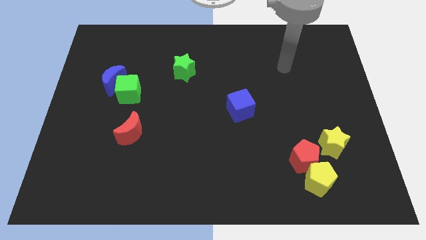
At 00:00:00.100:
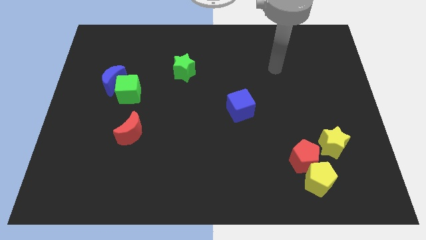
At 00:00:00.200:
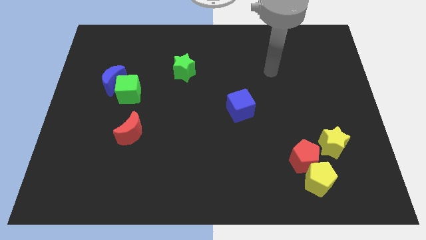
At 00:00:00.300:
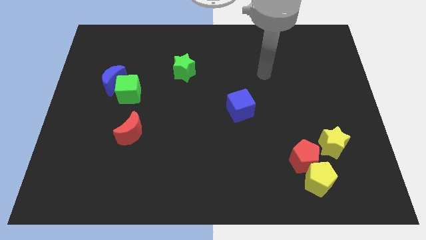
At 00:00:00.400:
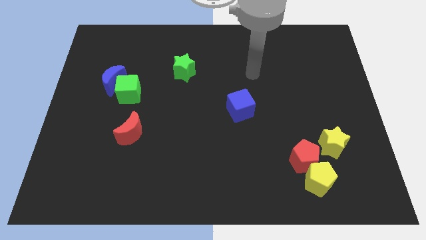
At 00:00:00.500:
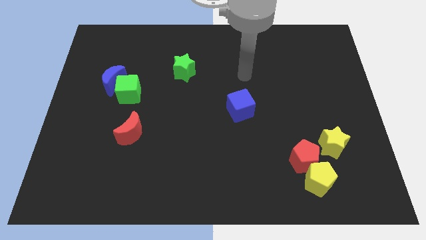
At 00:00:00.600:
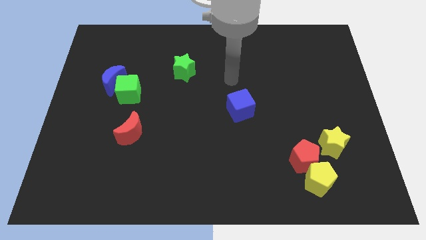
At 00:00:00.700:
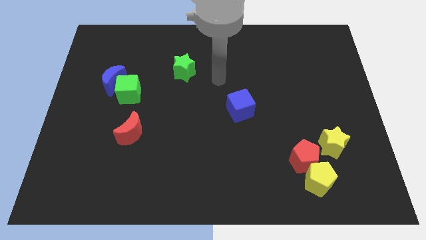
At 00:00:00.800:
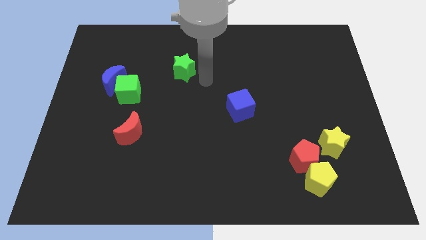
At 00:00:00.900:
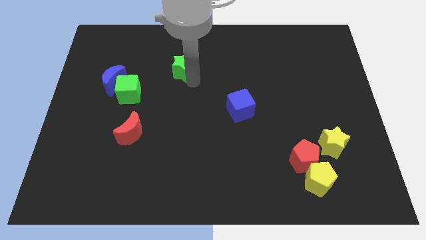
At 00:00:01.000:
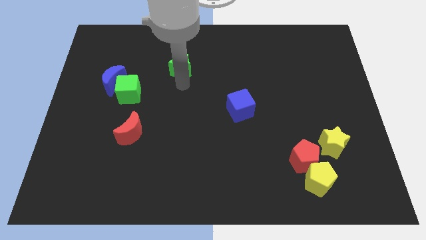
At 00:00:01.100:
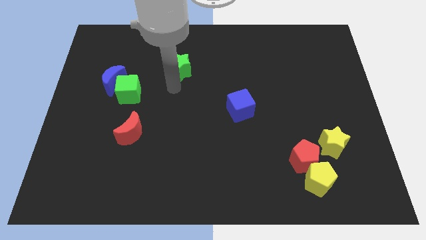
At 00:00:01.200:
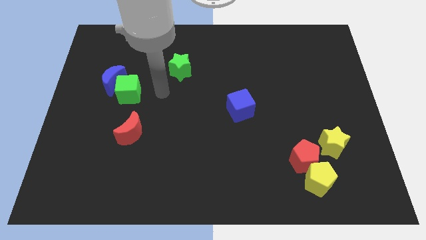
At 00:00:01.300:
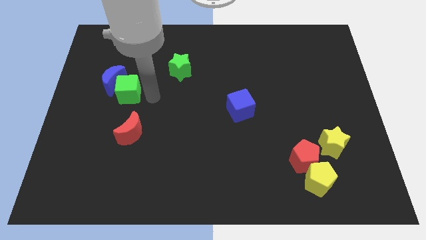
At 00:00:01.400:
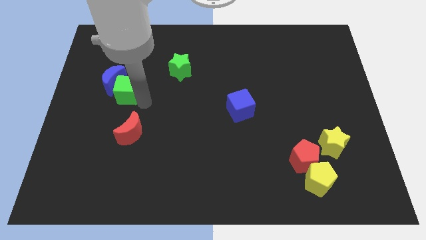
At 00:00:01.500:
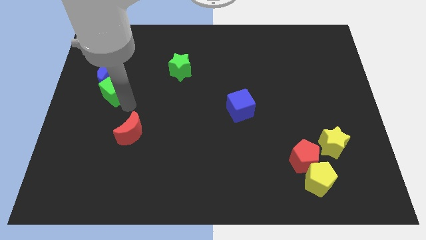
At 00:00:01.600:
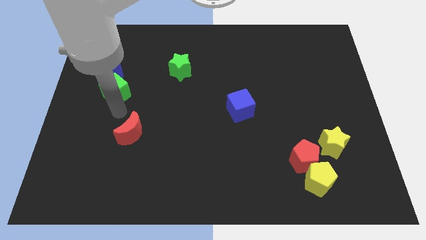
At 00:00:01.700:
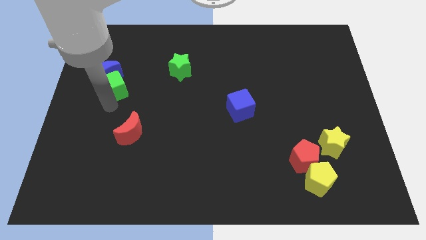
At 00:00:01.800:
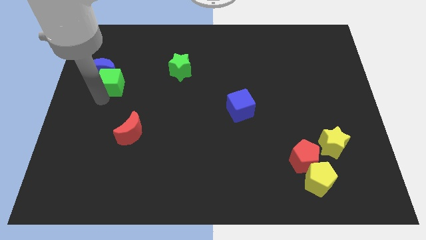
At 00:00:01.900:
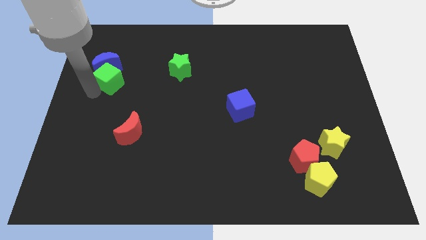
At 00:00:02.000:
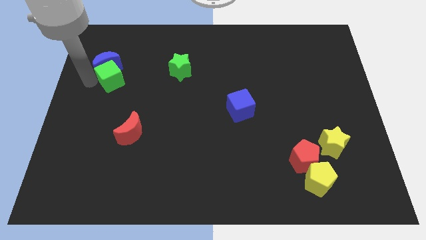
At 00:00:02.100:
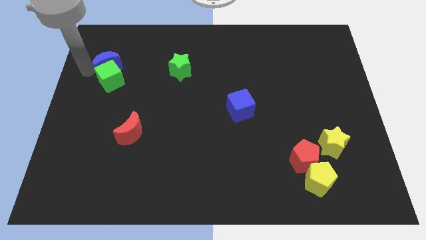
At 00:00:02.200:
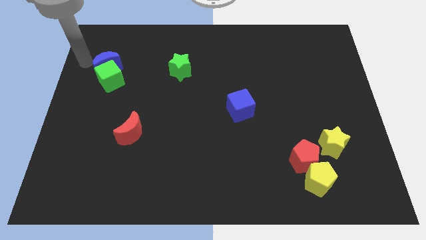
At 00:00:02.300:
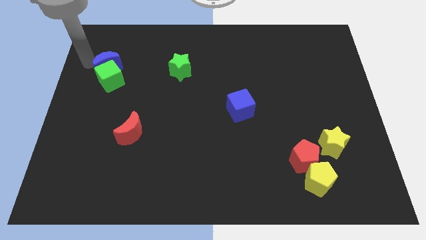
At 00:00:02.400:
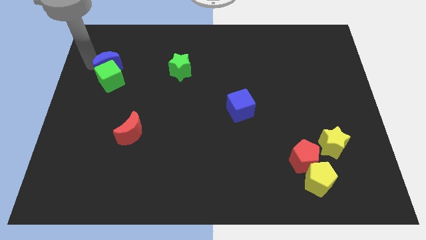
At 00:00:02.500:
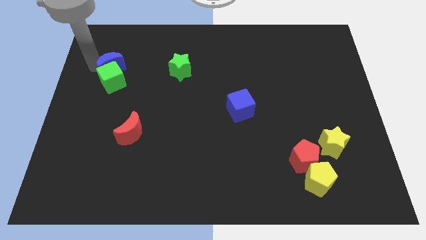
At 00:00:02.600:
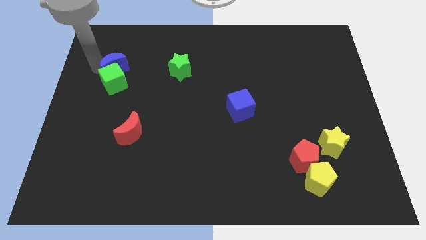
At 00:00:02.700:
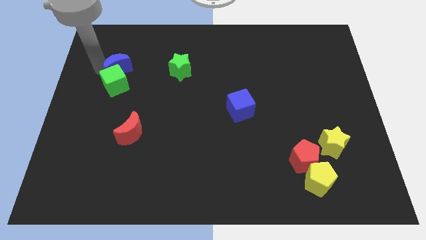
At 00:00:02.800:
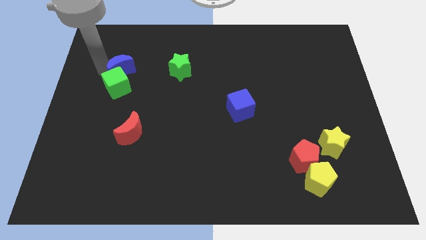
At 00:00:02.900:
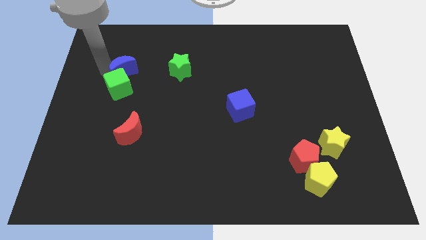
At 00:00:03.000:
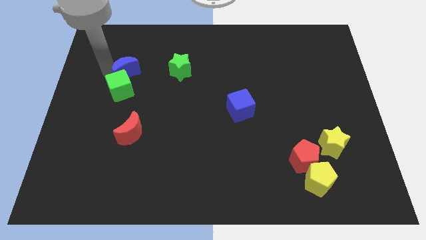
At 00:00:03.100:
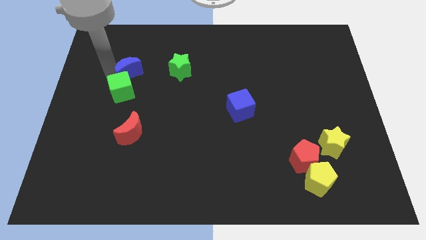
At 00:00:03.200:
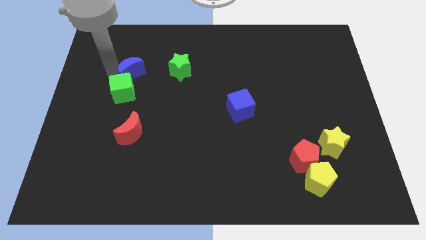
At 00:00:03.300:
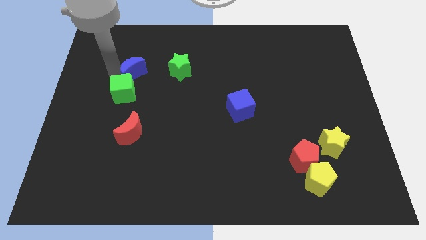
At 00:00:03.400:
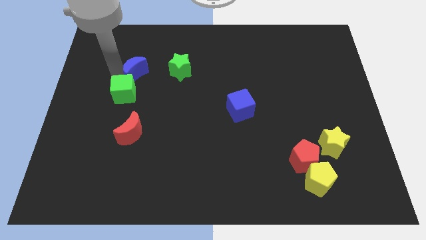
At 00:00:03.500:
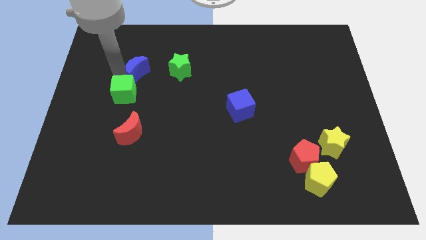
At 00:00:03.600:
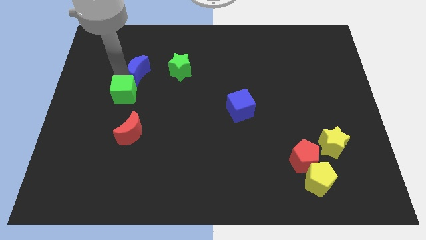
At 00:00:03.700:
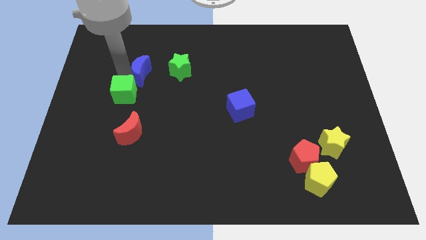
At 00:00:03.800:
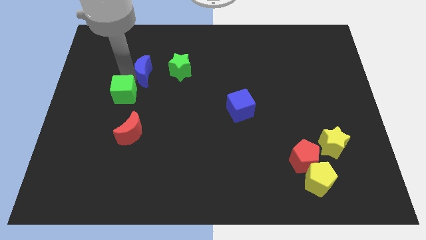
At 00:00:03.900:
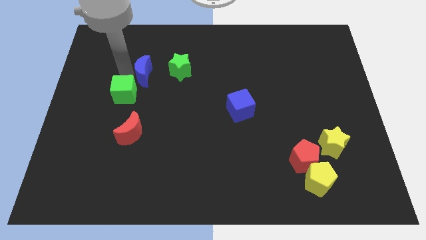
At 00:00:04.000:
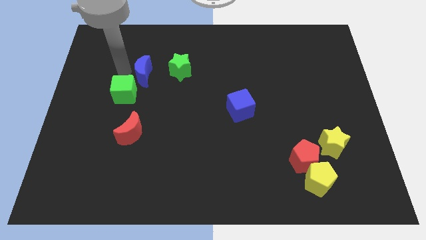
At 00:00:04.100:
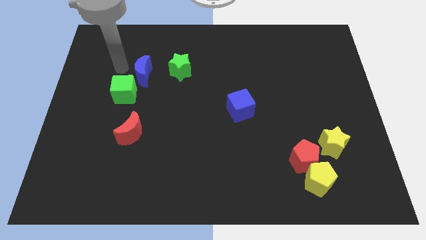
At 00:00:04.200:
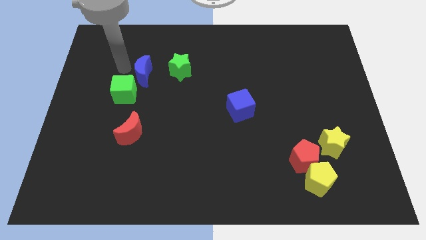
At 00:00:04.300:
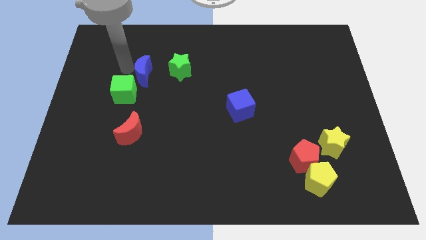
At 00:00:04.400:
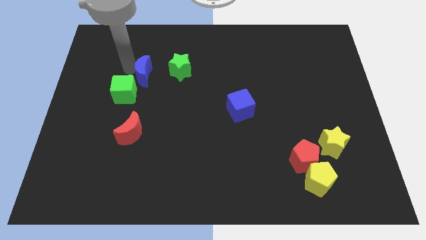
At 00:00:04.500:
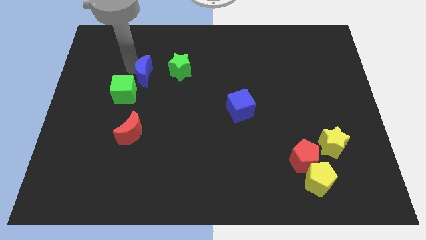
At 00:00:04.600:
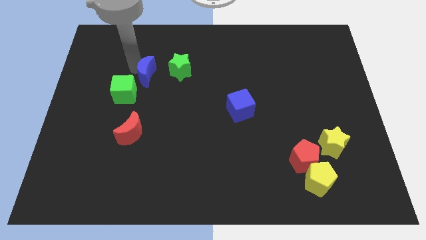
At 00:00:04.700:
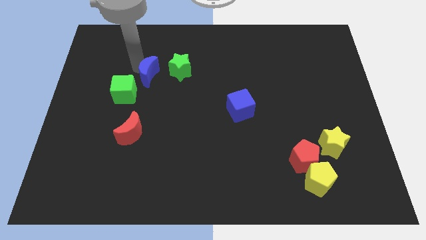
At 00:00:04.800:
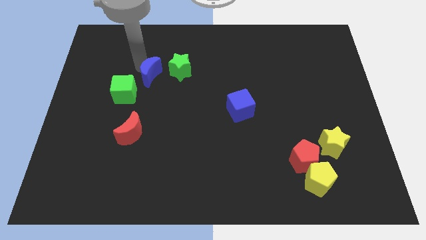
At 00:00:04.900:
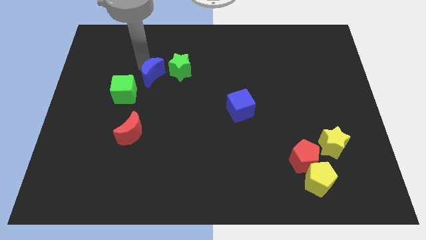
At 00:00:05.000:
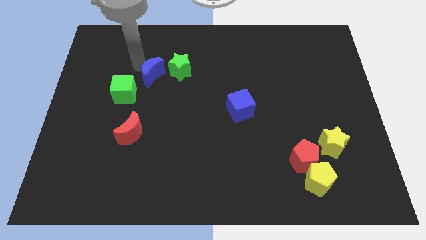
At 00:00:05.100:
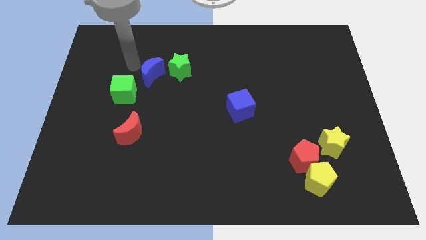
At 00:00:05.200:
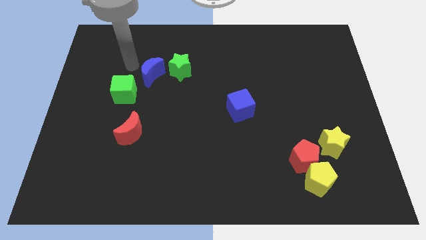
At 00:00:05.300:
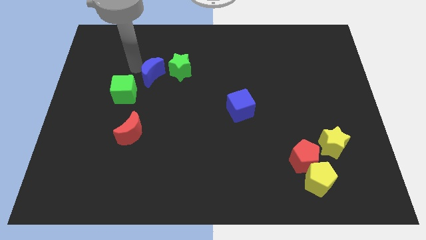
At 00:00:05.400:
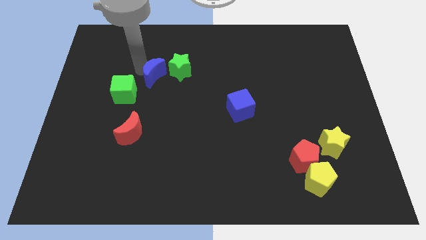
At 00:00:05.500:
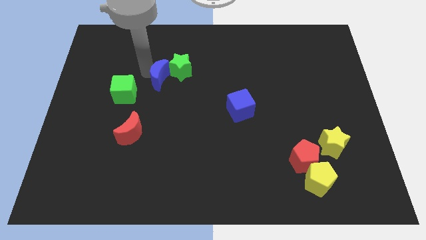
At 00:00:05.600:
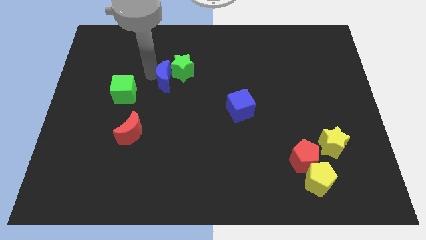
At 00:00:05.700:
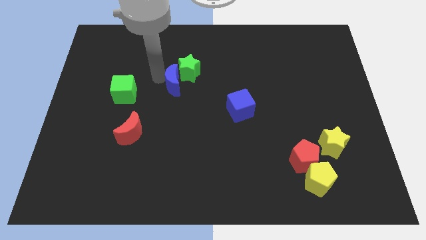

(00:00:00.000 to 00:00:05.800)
move the blue moon to the center of the board

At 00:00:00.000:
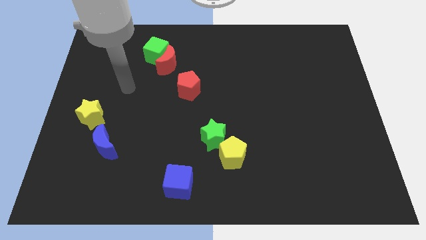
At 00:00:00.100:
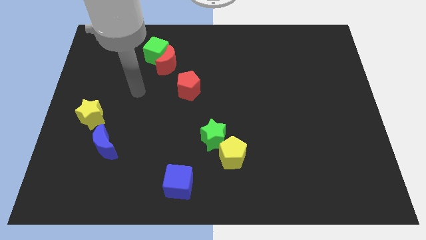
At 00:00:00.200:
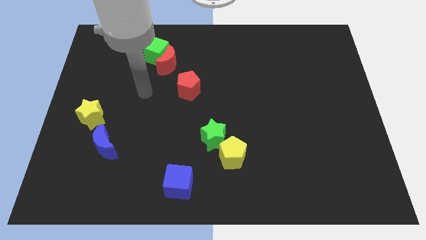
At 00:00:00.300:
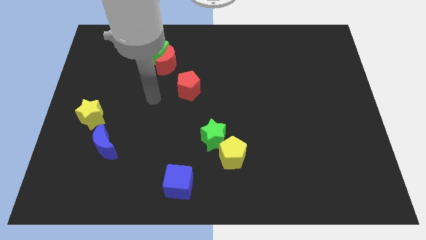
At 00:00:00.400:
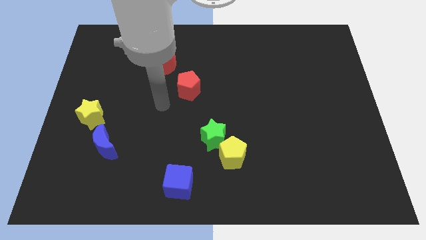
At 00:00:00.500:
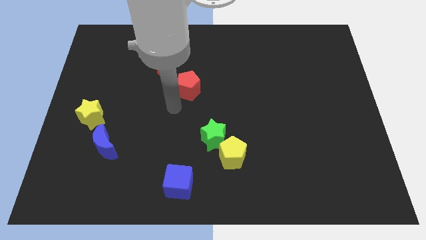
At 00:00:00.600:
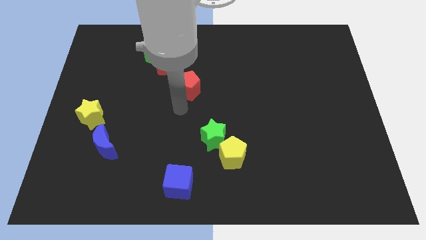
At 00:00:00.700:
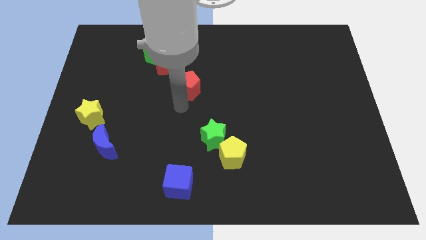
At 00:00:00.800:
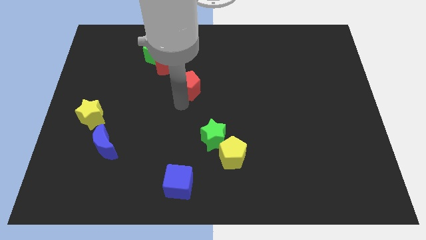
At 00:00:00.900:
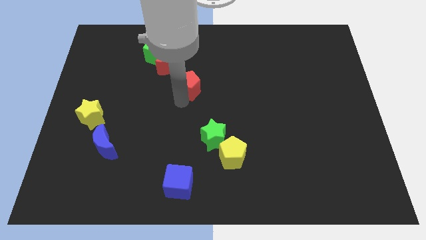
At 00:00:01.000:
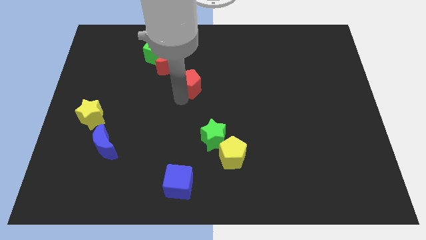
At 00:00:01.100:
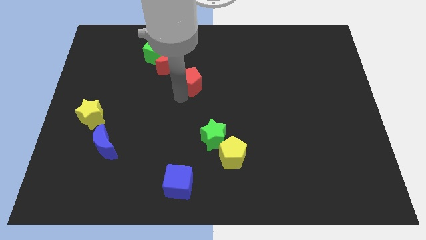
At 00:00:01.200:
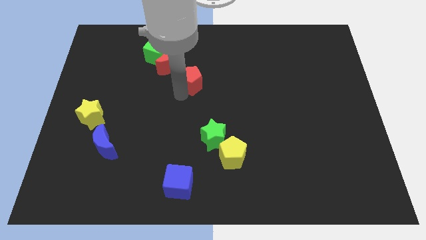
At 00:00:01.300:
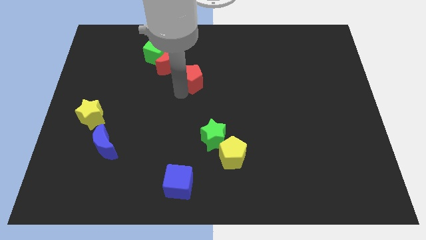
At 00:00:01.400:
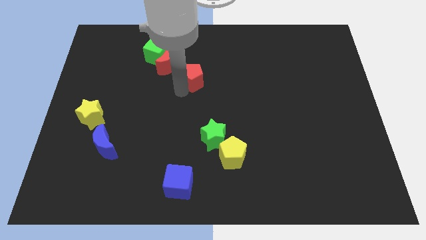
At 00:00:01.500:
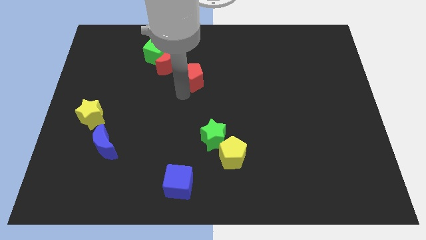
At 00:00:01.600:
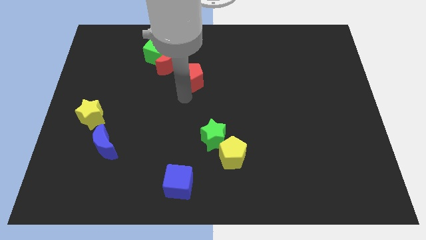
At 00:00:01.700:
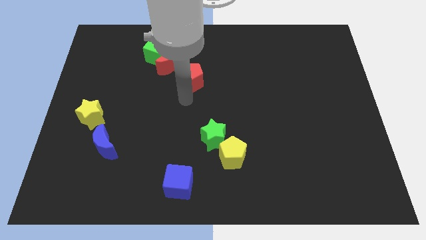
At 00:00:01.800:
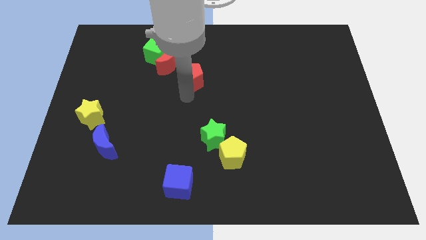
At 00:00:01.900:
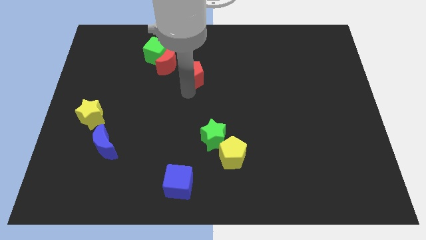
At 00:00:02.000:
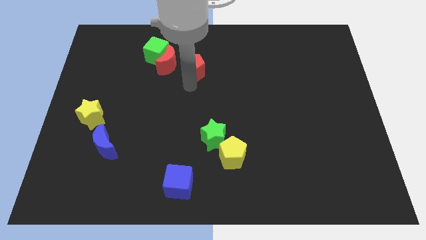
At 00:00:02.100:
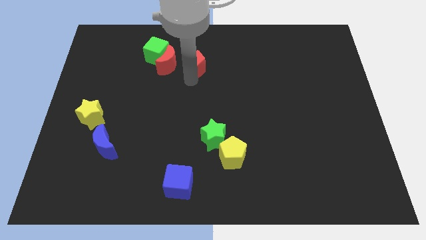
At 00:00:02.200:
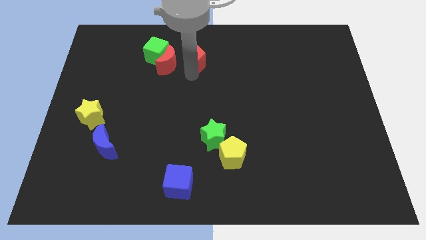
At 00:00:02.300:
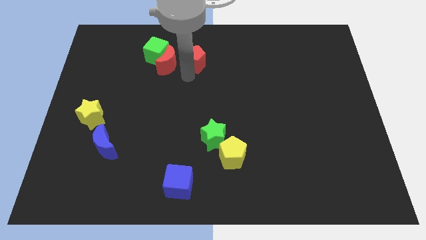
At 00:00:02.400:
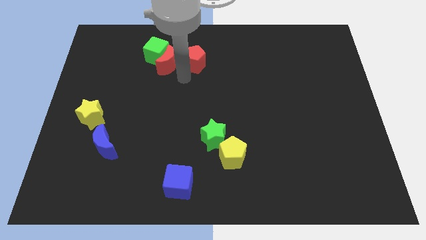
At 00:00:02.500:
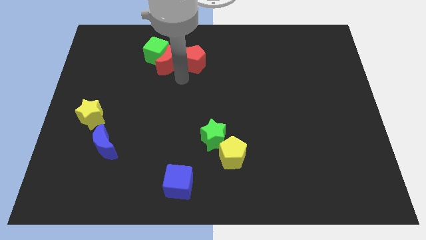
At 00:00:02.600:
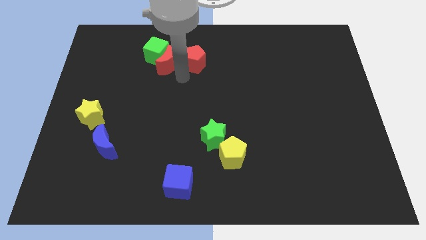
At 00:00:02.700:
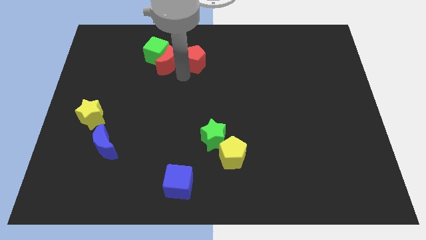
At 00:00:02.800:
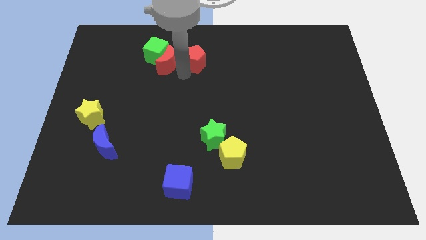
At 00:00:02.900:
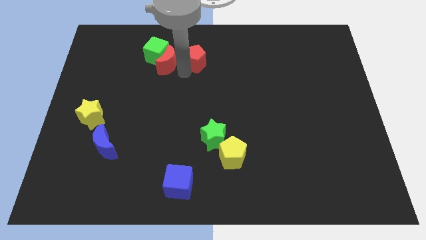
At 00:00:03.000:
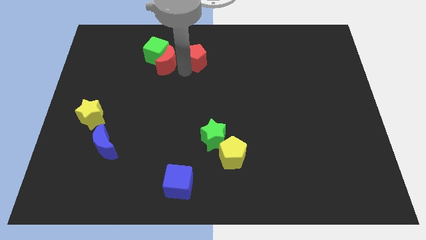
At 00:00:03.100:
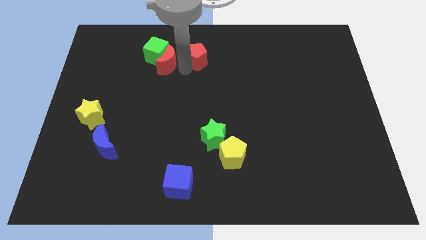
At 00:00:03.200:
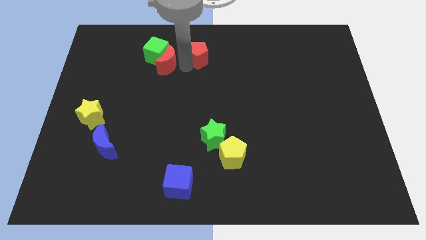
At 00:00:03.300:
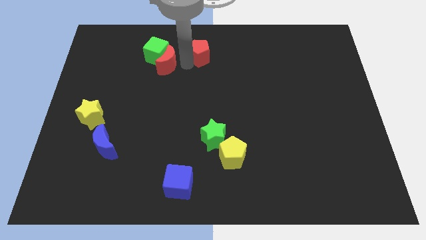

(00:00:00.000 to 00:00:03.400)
push the red pentagon to the top
